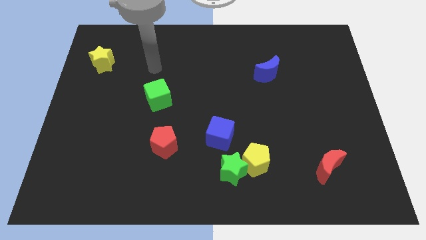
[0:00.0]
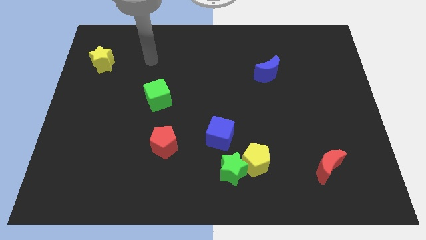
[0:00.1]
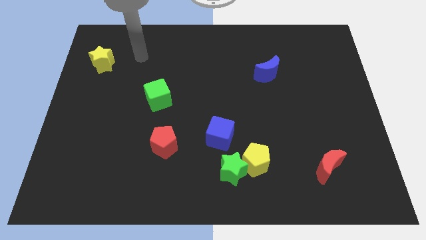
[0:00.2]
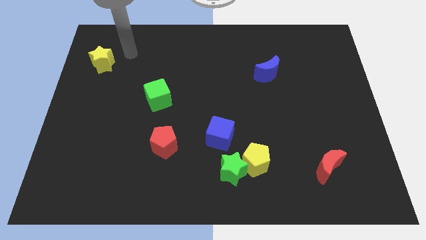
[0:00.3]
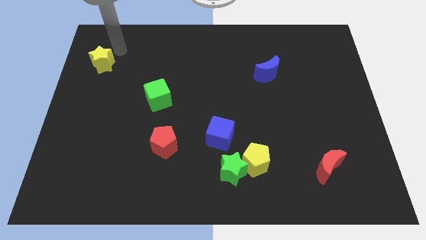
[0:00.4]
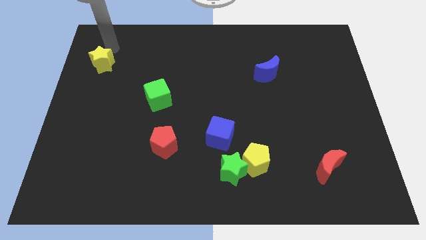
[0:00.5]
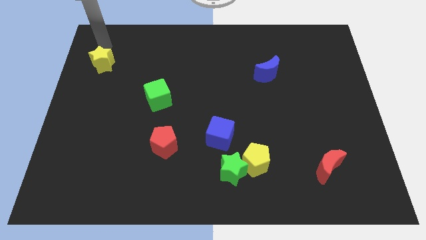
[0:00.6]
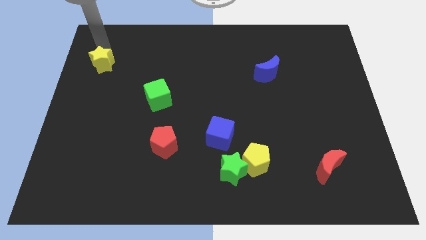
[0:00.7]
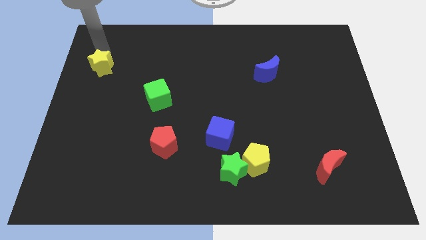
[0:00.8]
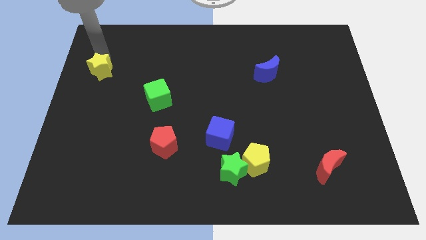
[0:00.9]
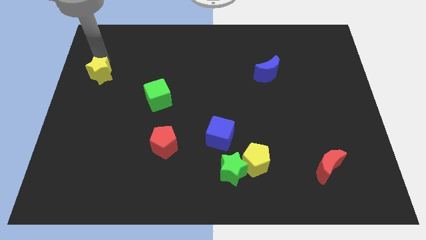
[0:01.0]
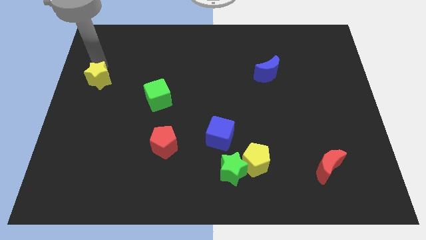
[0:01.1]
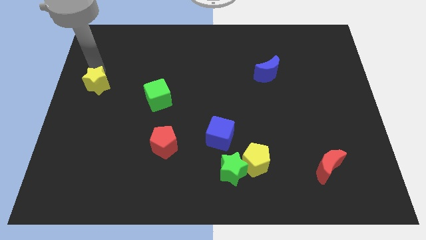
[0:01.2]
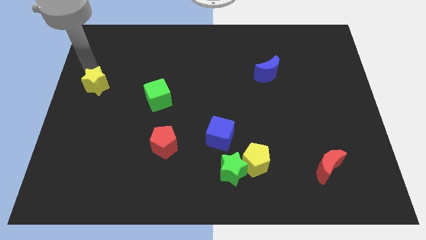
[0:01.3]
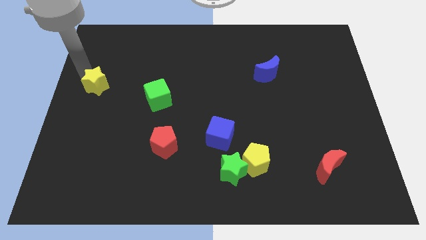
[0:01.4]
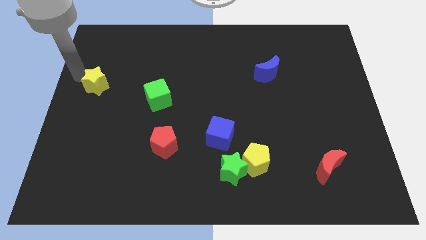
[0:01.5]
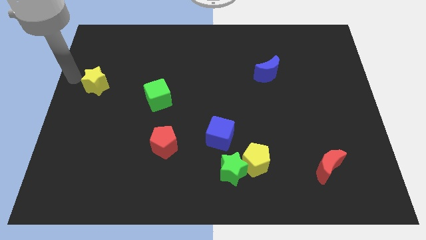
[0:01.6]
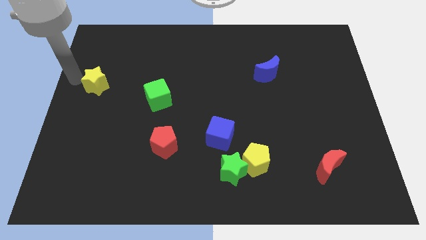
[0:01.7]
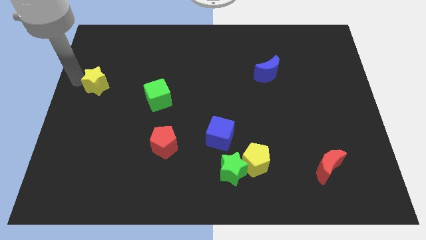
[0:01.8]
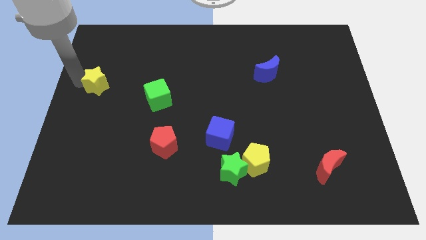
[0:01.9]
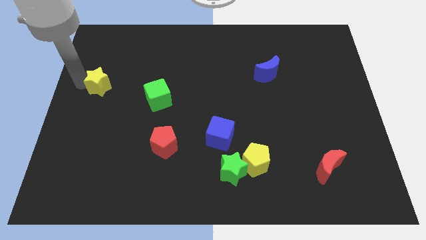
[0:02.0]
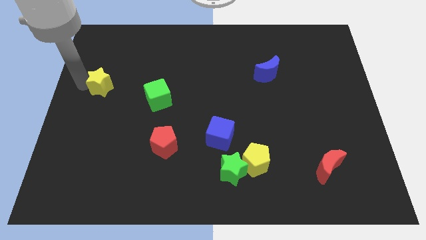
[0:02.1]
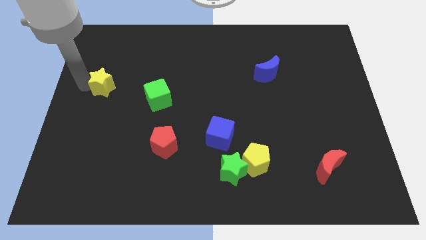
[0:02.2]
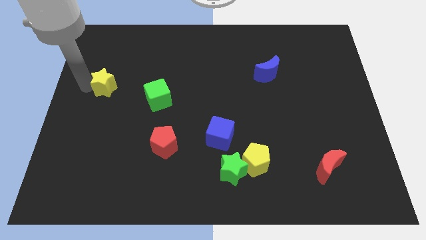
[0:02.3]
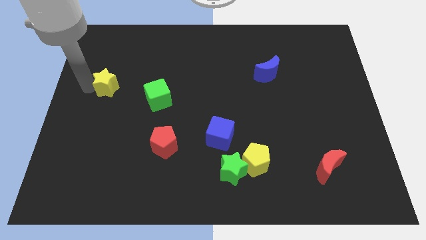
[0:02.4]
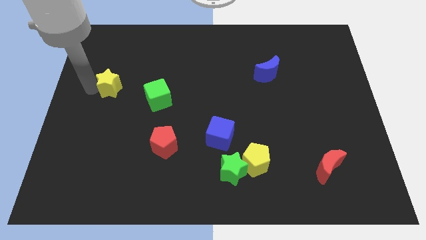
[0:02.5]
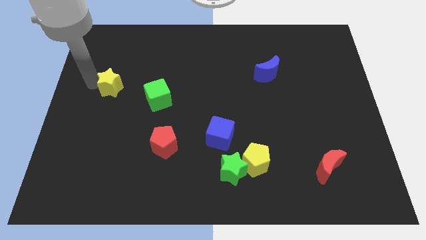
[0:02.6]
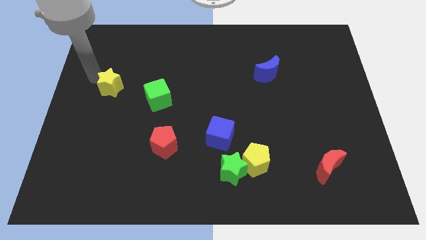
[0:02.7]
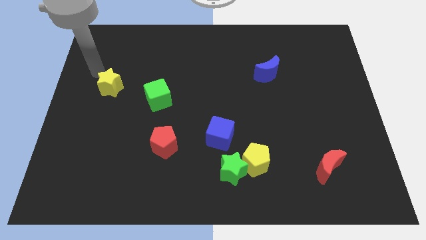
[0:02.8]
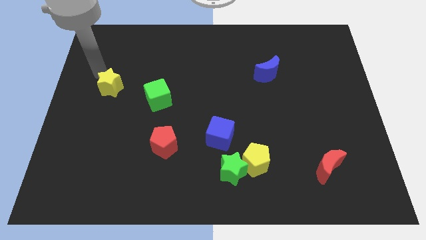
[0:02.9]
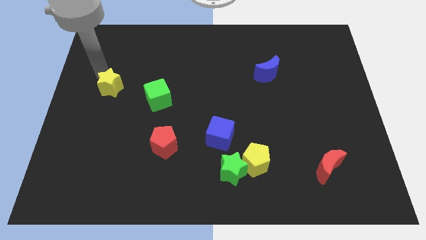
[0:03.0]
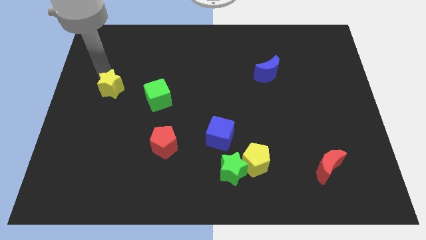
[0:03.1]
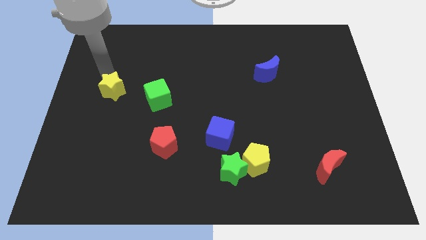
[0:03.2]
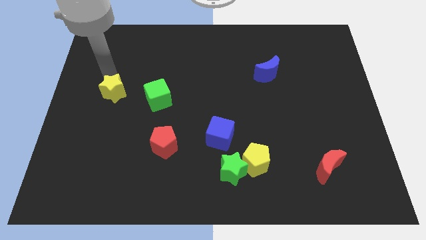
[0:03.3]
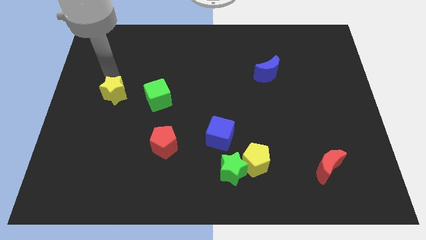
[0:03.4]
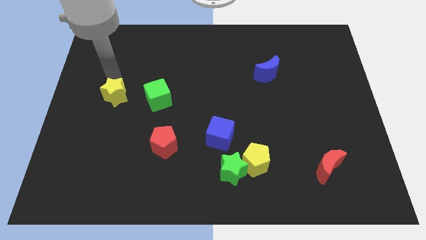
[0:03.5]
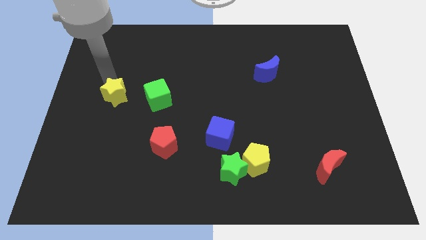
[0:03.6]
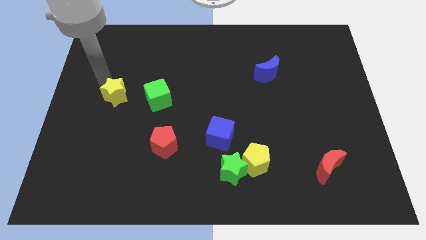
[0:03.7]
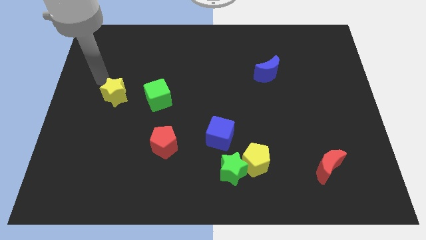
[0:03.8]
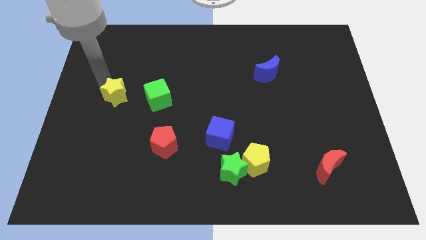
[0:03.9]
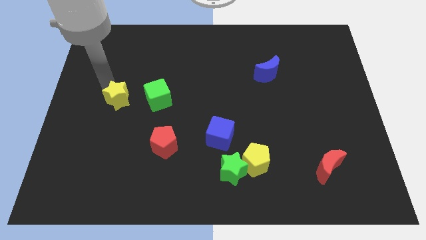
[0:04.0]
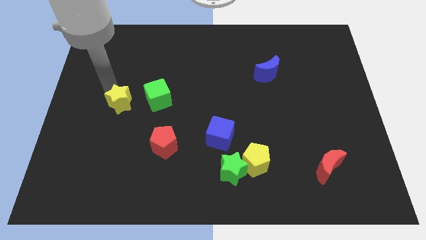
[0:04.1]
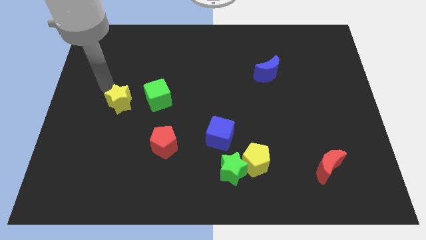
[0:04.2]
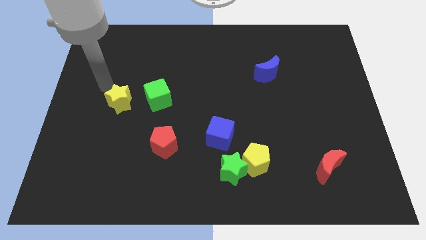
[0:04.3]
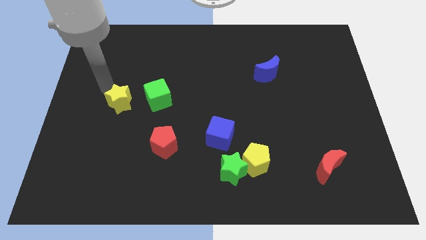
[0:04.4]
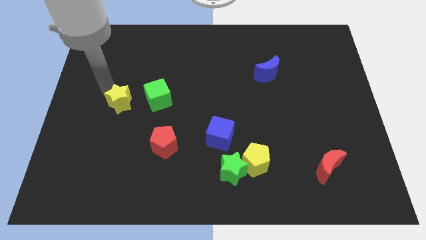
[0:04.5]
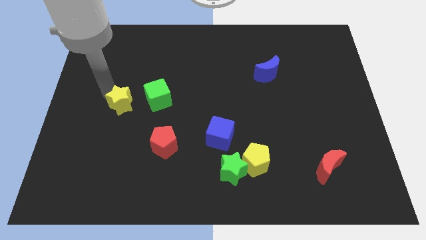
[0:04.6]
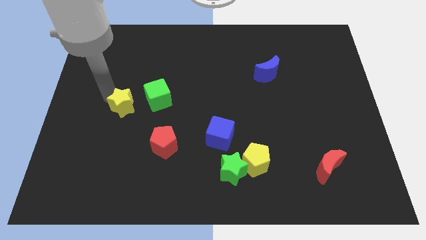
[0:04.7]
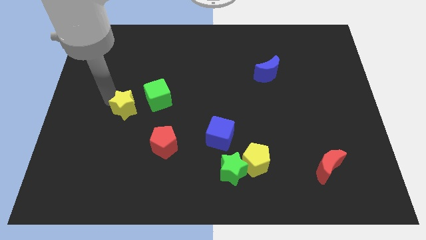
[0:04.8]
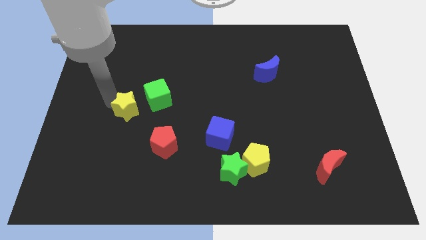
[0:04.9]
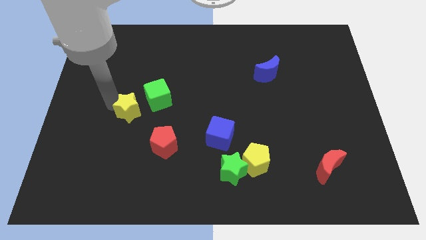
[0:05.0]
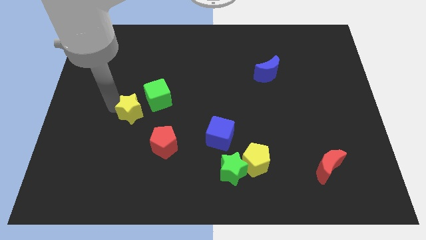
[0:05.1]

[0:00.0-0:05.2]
push the yellow star to the top left of the red pentagon

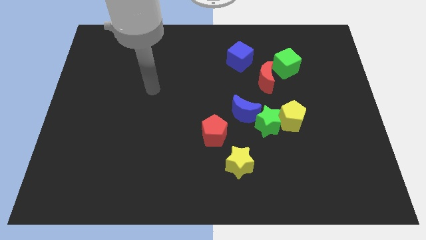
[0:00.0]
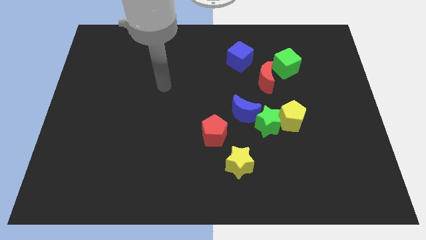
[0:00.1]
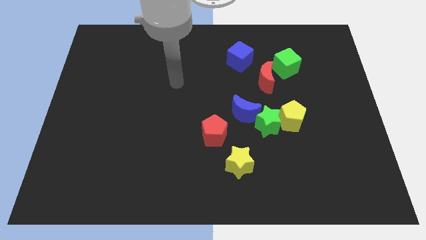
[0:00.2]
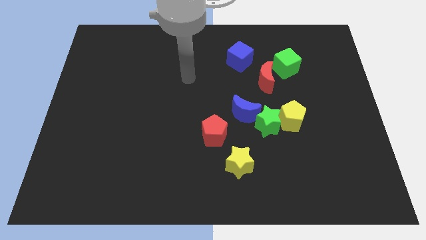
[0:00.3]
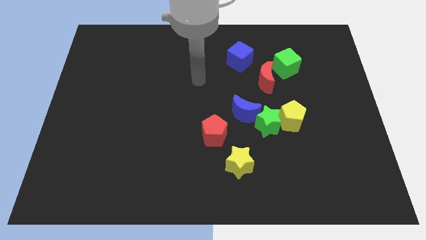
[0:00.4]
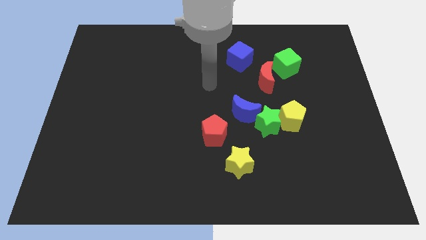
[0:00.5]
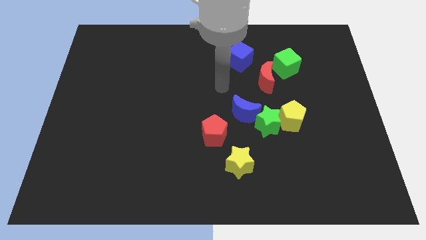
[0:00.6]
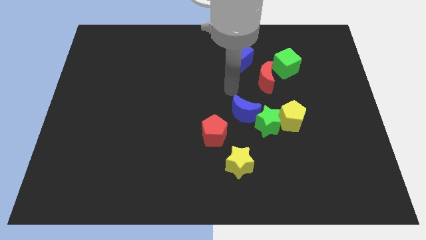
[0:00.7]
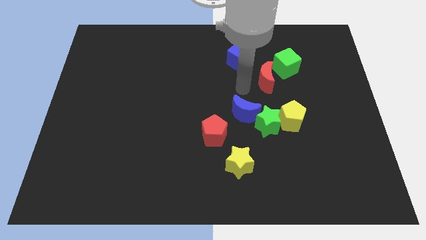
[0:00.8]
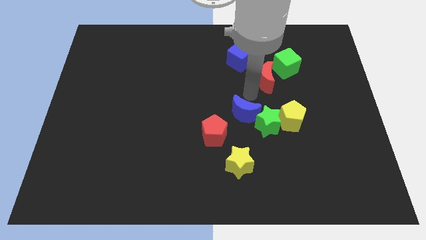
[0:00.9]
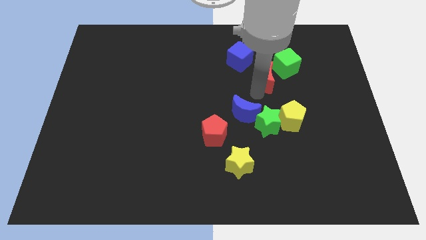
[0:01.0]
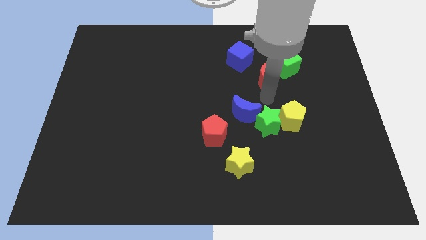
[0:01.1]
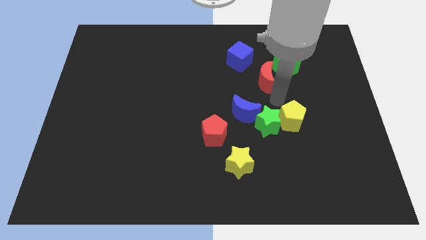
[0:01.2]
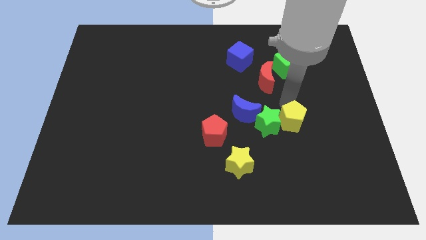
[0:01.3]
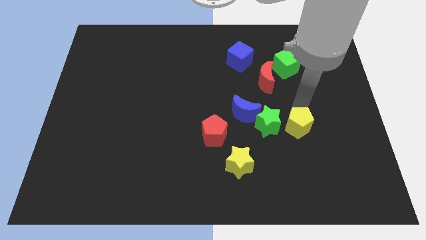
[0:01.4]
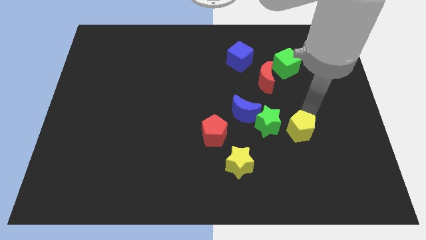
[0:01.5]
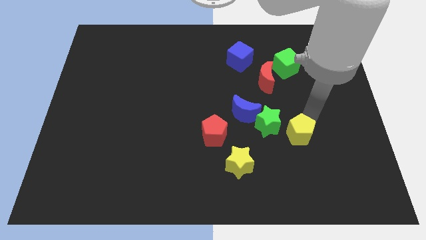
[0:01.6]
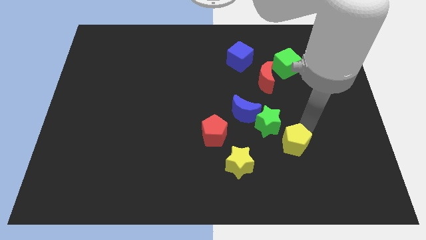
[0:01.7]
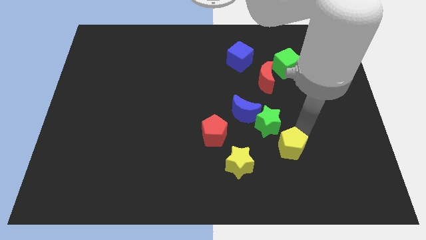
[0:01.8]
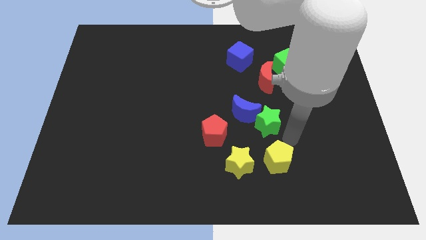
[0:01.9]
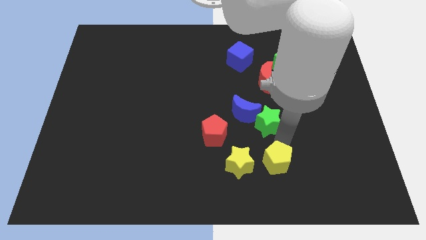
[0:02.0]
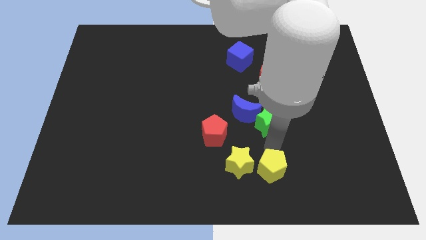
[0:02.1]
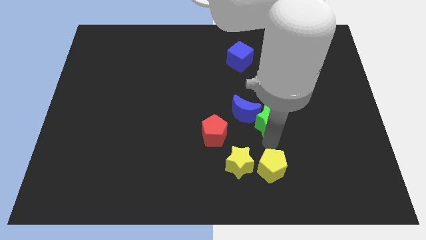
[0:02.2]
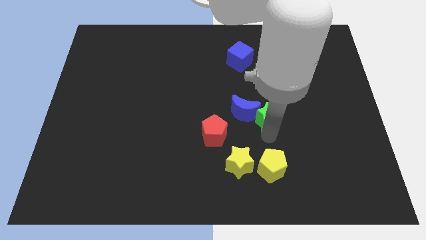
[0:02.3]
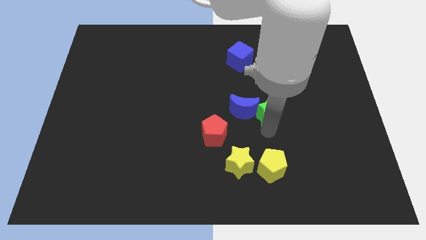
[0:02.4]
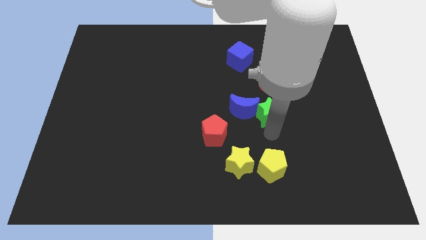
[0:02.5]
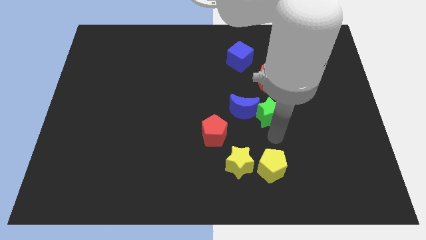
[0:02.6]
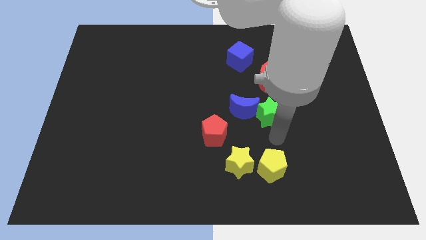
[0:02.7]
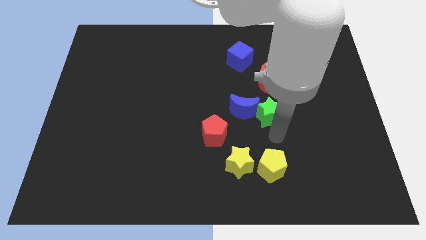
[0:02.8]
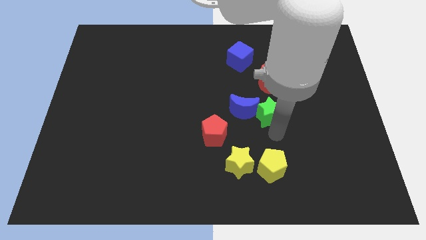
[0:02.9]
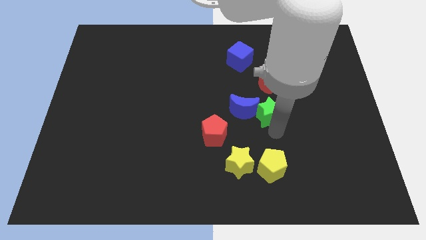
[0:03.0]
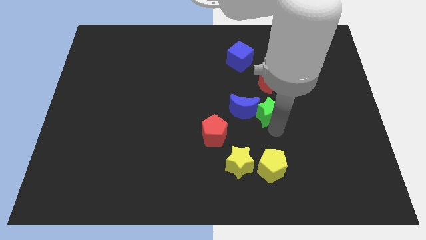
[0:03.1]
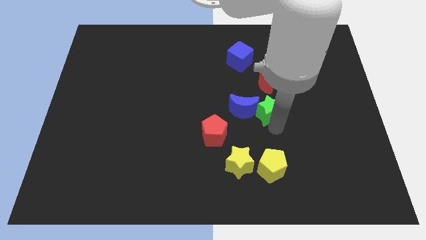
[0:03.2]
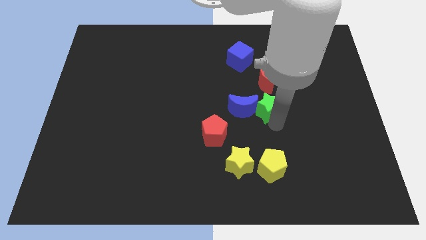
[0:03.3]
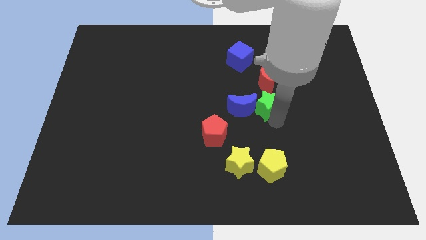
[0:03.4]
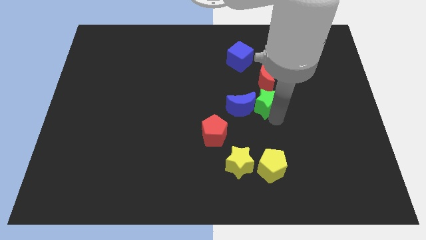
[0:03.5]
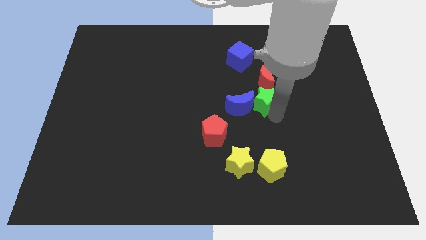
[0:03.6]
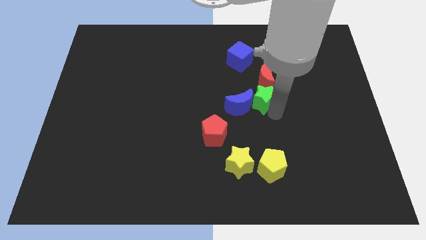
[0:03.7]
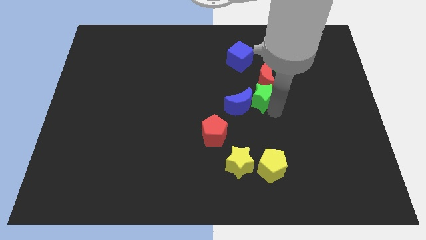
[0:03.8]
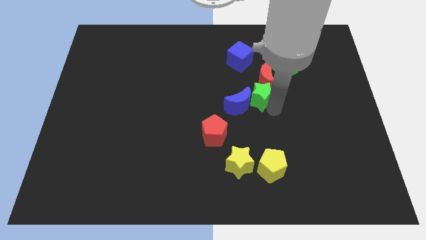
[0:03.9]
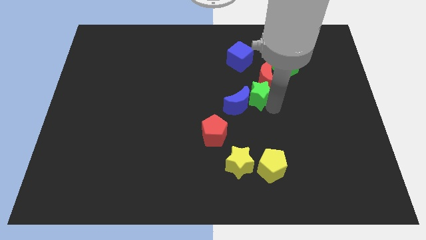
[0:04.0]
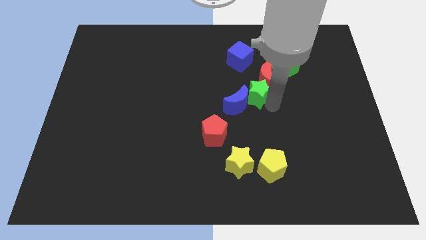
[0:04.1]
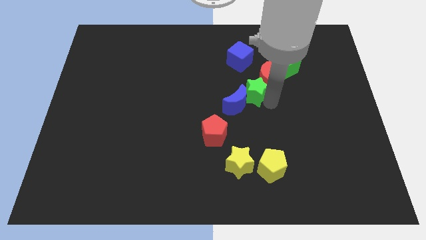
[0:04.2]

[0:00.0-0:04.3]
push the green star above the blue moon
